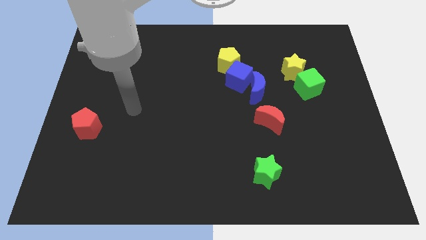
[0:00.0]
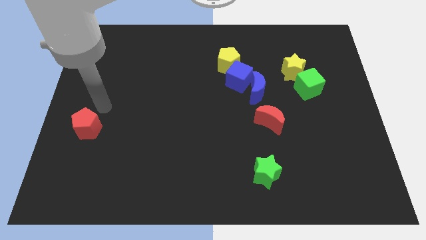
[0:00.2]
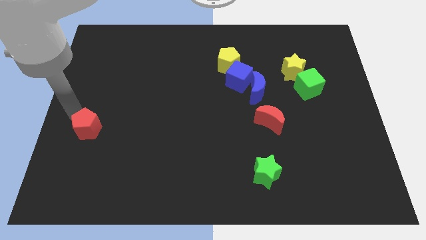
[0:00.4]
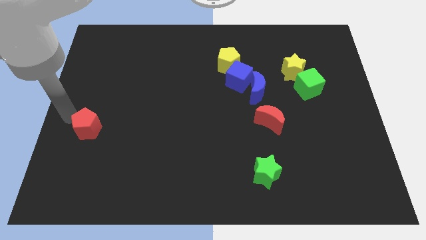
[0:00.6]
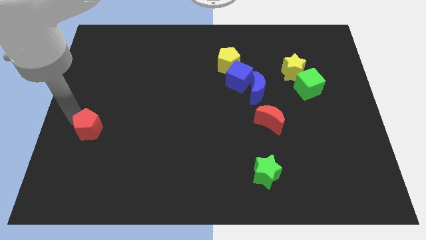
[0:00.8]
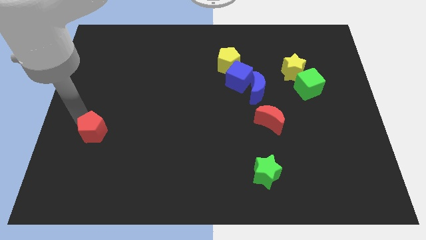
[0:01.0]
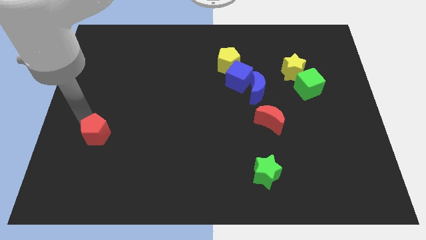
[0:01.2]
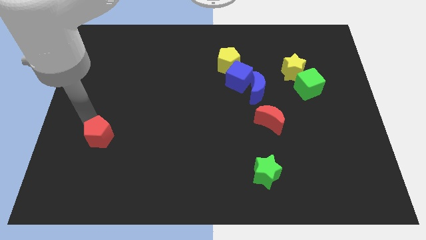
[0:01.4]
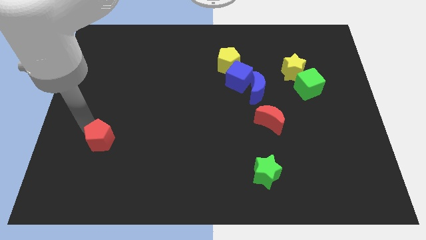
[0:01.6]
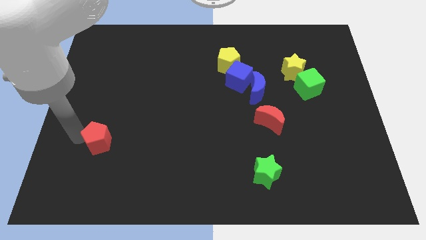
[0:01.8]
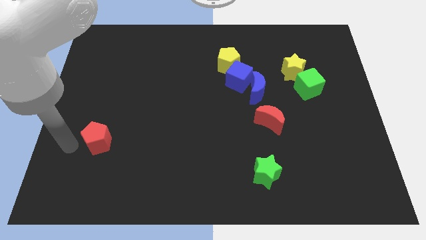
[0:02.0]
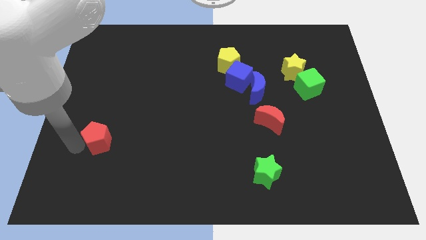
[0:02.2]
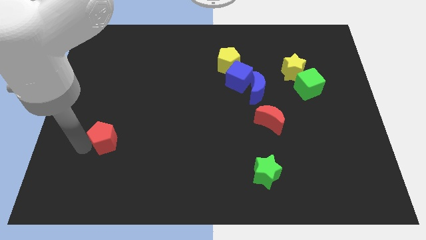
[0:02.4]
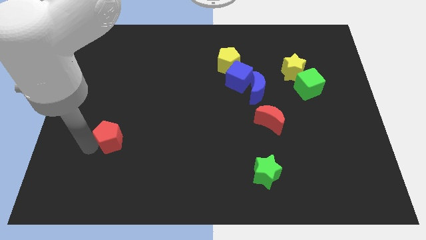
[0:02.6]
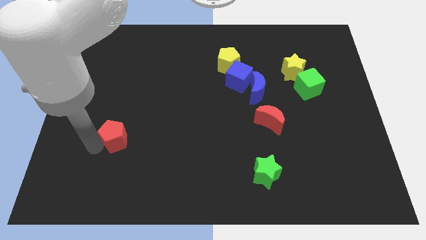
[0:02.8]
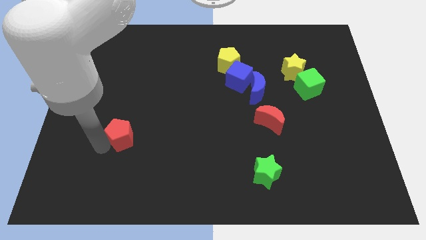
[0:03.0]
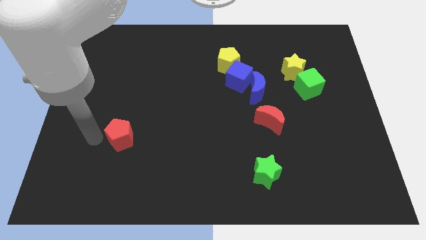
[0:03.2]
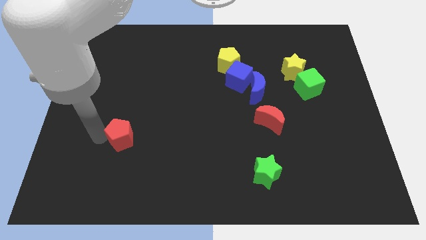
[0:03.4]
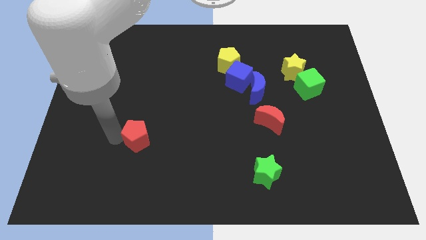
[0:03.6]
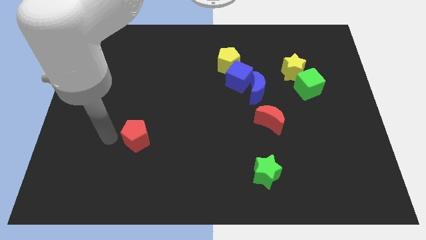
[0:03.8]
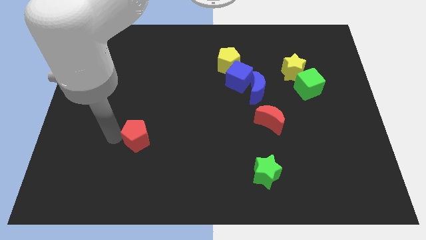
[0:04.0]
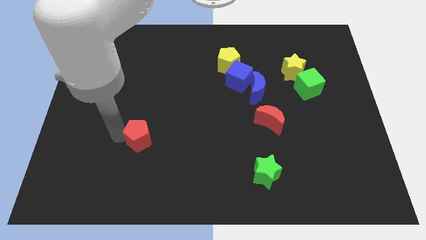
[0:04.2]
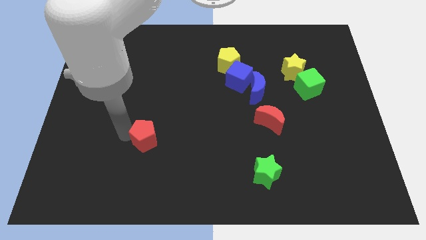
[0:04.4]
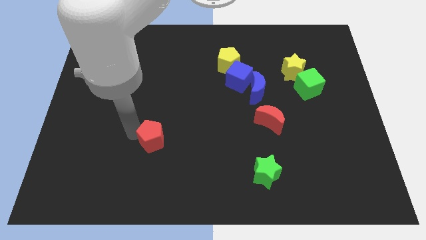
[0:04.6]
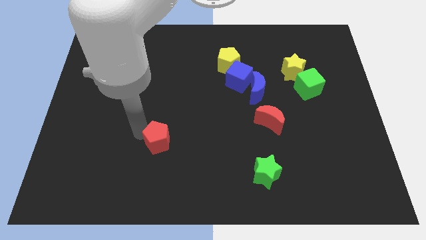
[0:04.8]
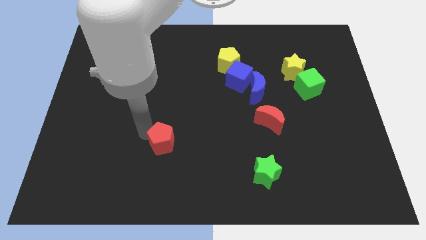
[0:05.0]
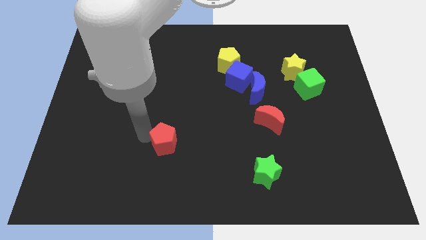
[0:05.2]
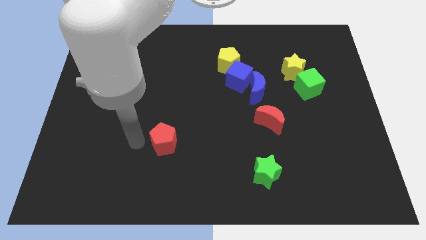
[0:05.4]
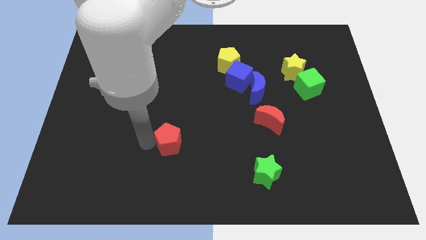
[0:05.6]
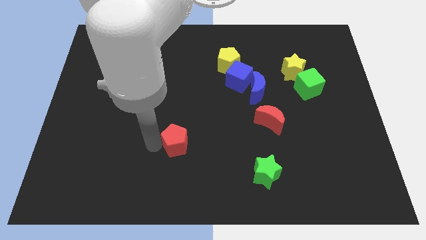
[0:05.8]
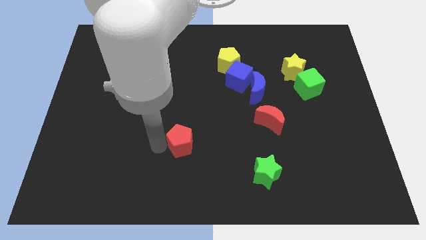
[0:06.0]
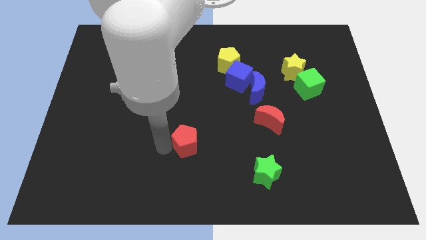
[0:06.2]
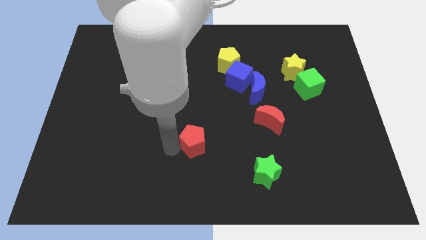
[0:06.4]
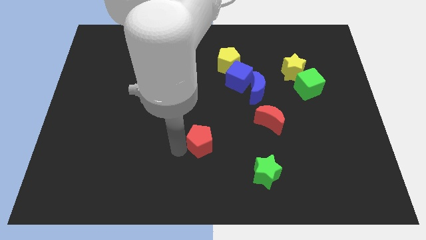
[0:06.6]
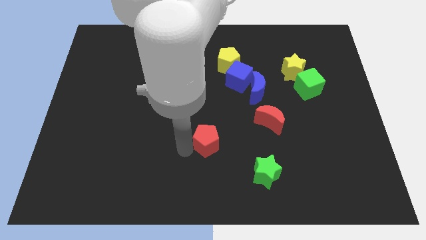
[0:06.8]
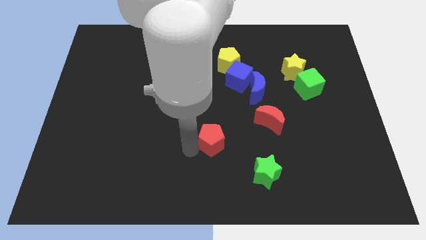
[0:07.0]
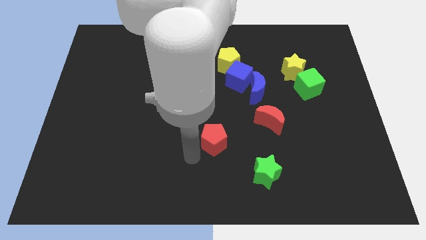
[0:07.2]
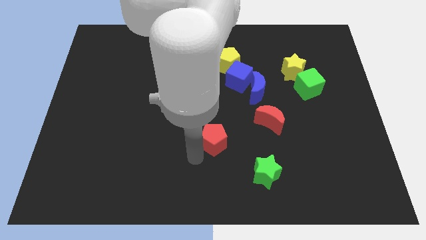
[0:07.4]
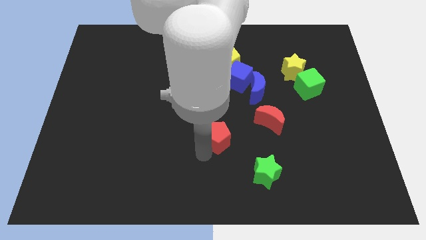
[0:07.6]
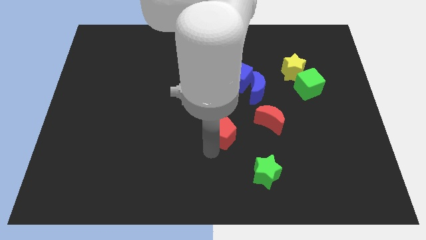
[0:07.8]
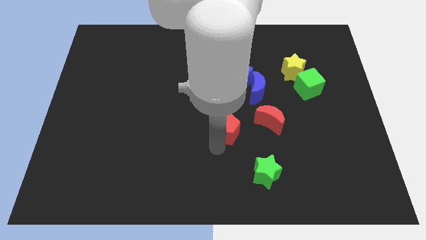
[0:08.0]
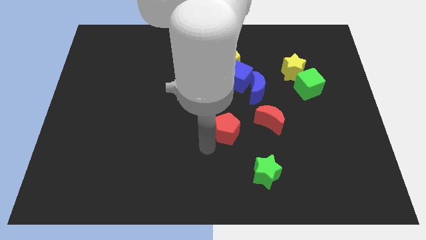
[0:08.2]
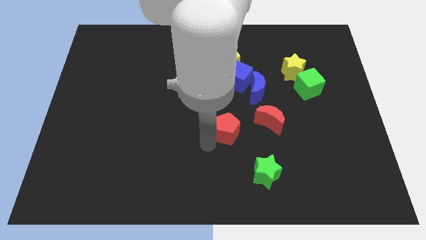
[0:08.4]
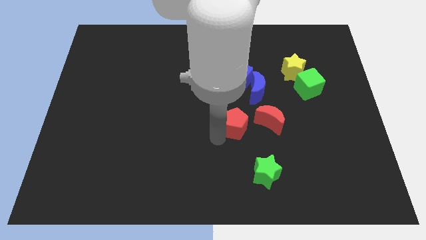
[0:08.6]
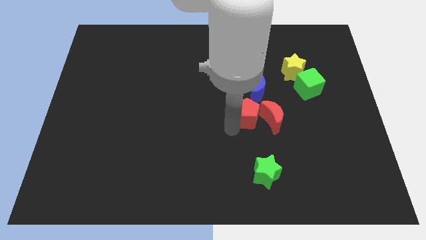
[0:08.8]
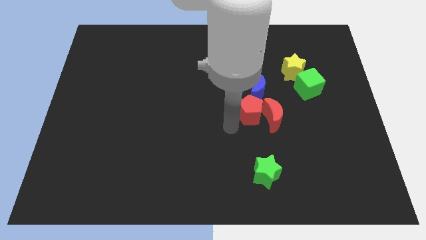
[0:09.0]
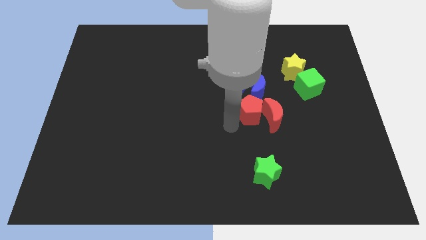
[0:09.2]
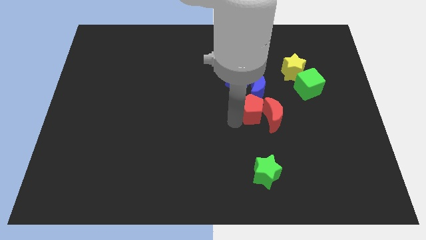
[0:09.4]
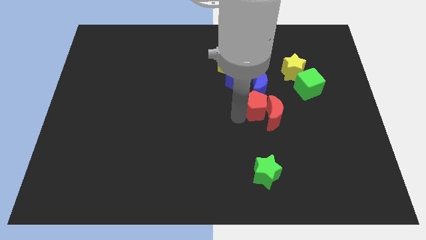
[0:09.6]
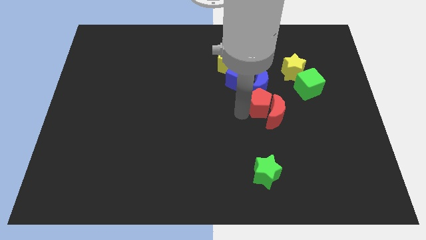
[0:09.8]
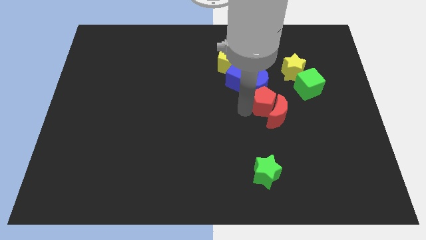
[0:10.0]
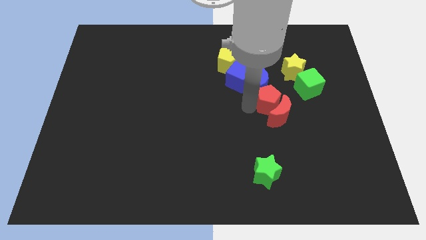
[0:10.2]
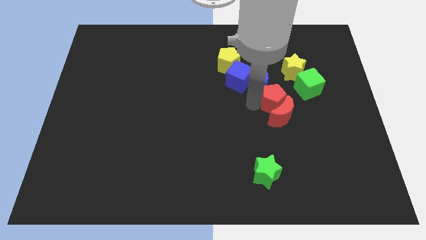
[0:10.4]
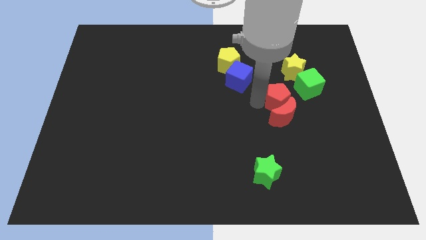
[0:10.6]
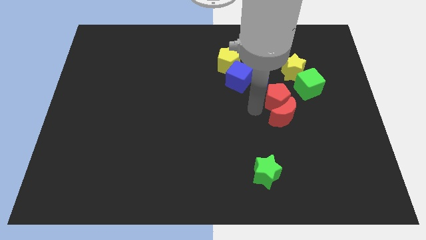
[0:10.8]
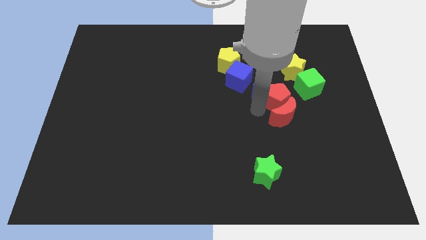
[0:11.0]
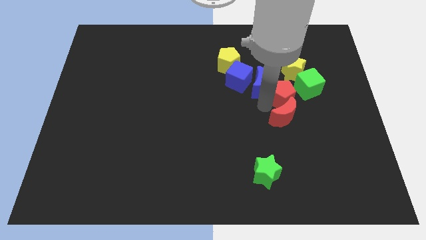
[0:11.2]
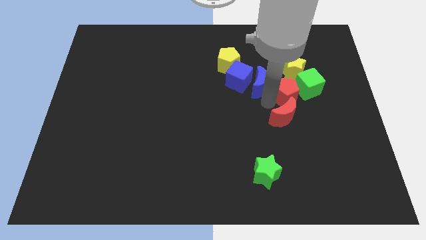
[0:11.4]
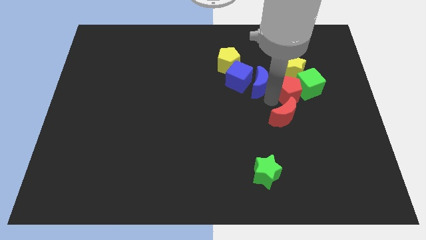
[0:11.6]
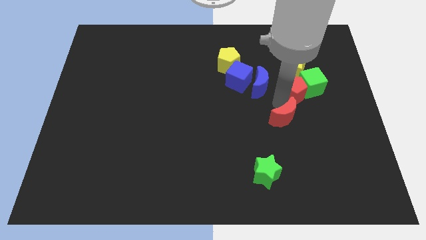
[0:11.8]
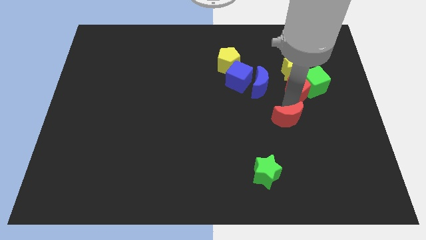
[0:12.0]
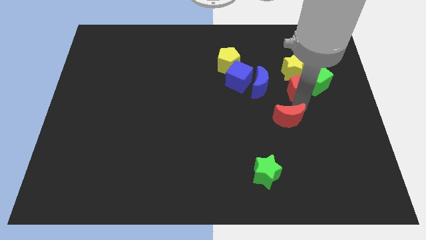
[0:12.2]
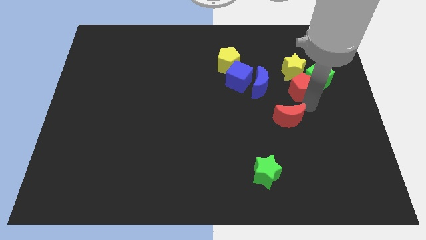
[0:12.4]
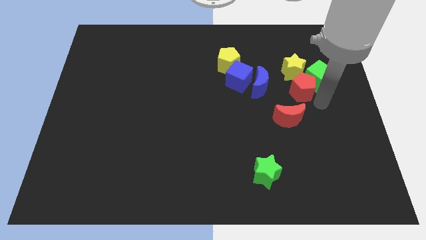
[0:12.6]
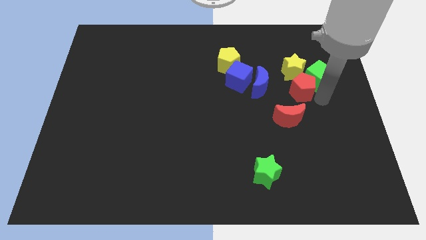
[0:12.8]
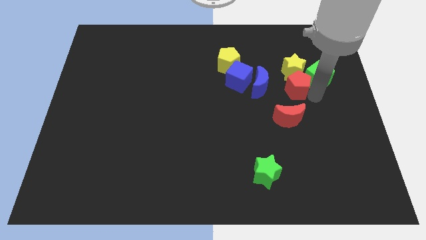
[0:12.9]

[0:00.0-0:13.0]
slide the red pentagon to the yellow star
